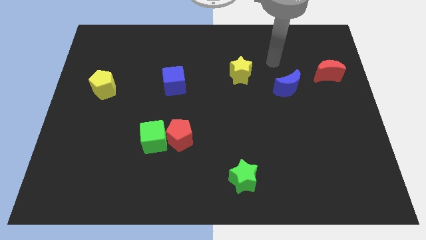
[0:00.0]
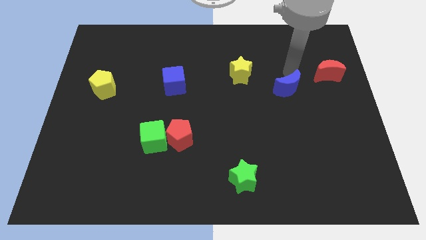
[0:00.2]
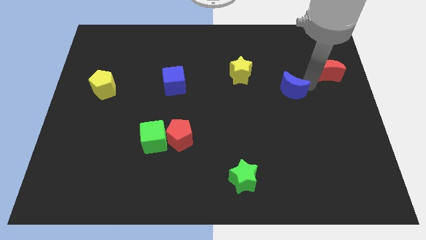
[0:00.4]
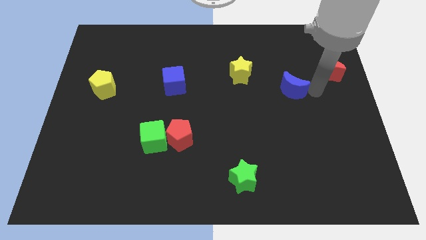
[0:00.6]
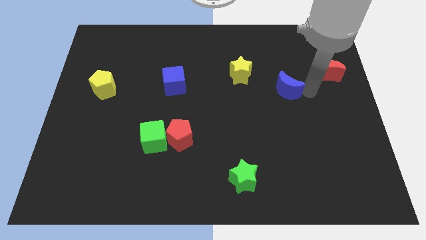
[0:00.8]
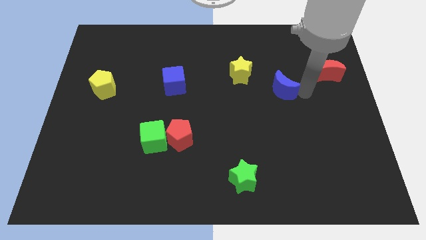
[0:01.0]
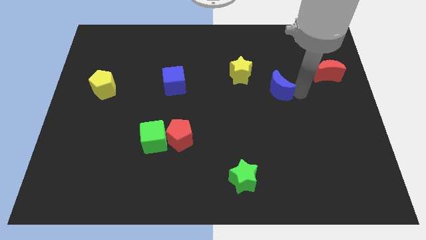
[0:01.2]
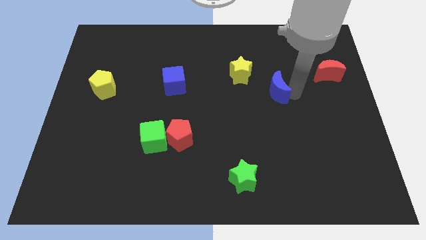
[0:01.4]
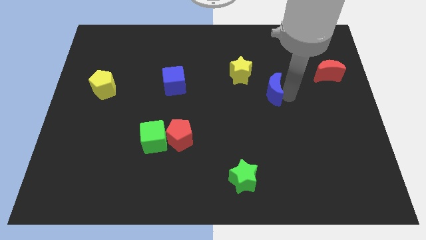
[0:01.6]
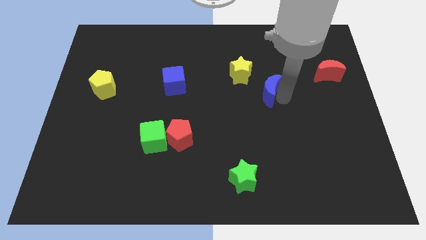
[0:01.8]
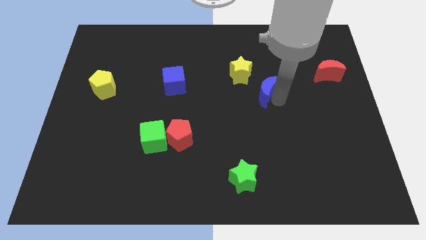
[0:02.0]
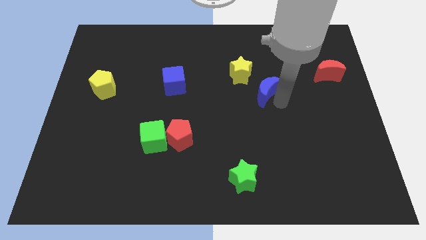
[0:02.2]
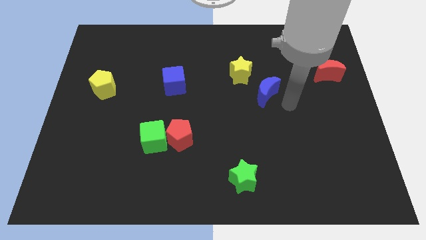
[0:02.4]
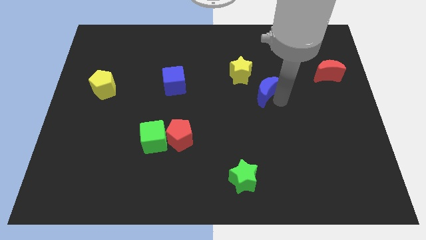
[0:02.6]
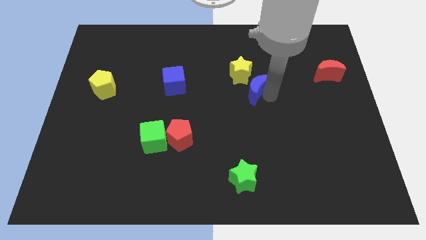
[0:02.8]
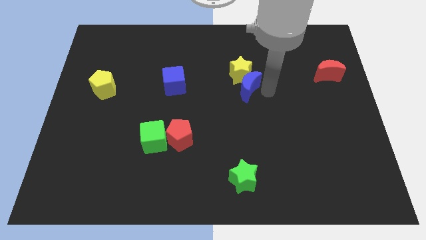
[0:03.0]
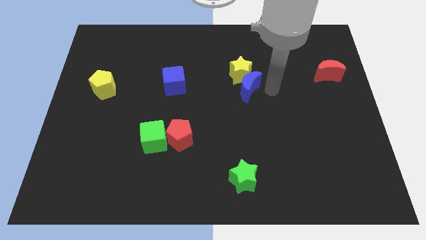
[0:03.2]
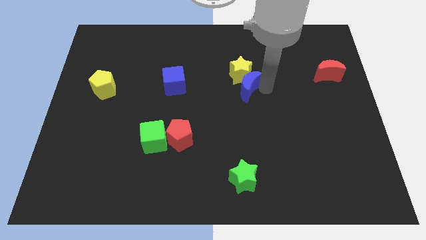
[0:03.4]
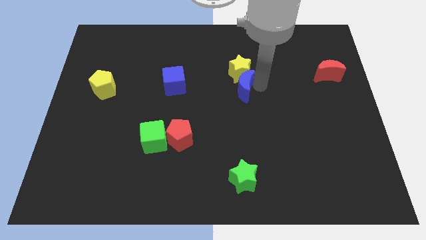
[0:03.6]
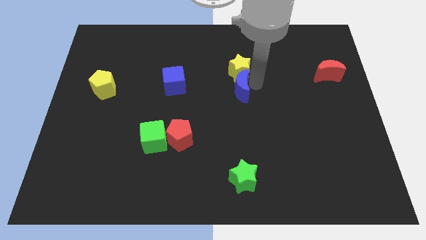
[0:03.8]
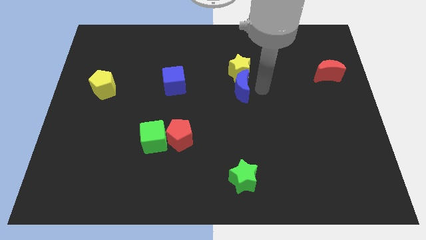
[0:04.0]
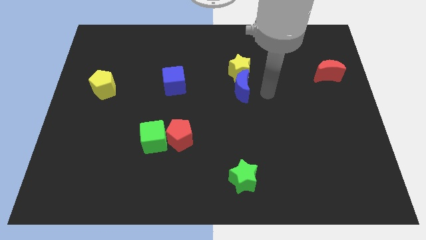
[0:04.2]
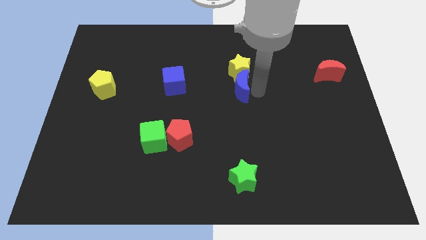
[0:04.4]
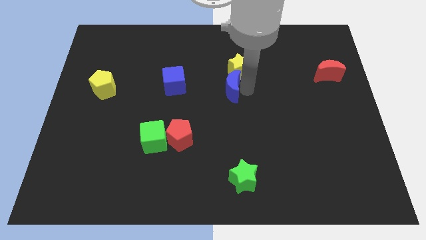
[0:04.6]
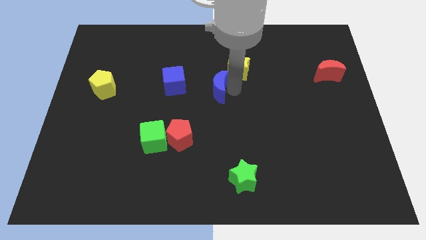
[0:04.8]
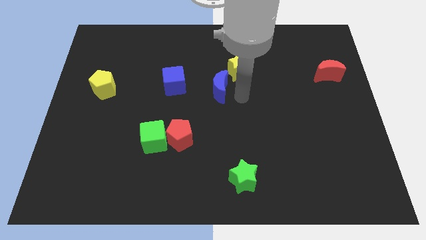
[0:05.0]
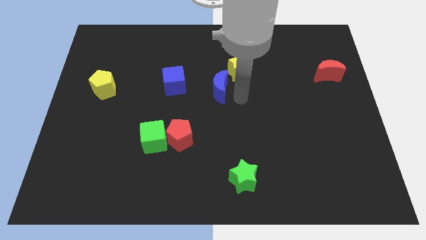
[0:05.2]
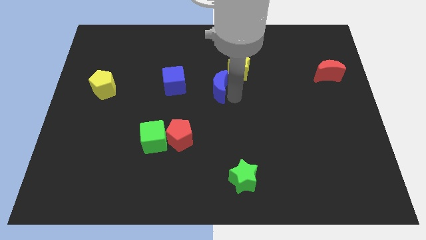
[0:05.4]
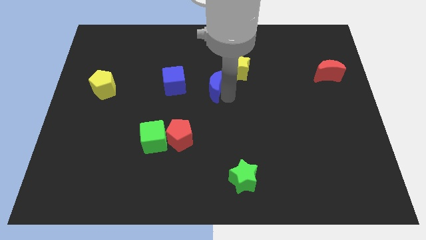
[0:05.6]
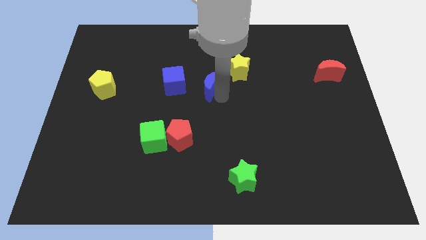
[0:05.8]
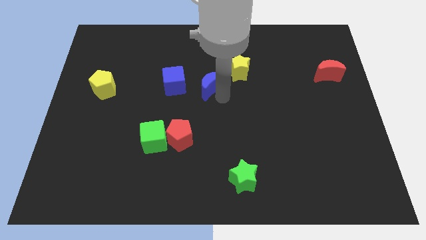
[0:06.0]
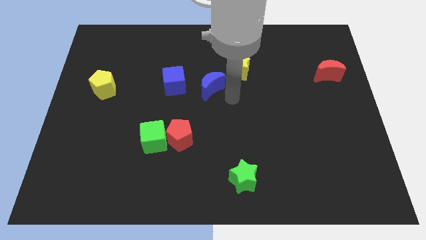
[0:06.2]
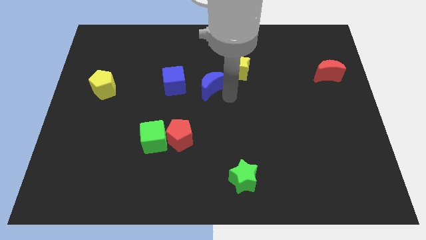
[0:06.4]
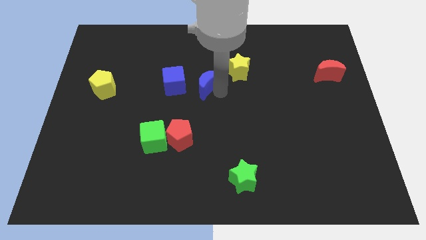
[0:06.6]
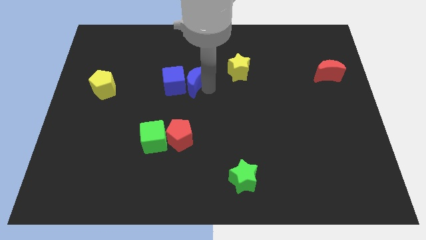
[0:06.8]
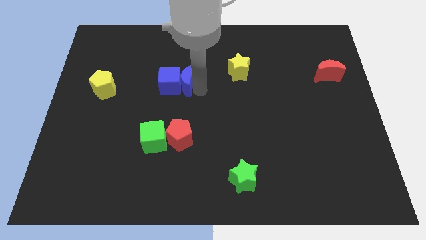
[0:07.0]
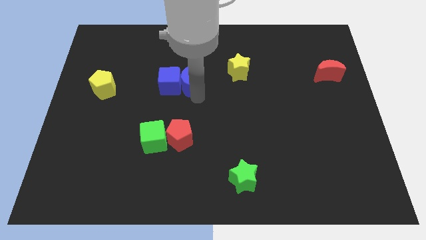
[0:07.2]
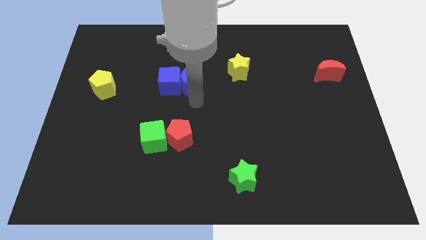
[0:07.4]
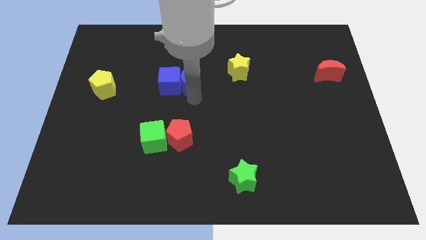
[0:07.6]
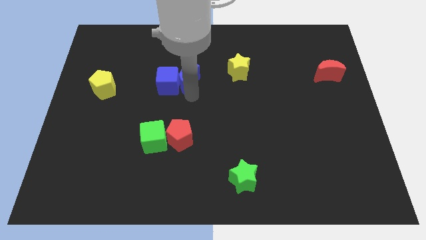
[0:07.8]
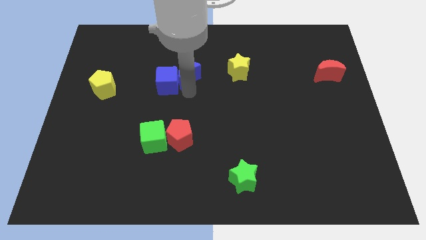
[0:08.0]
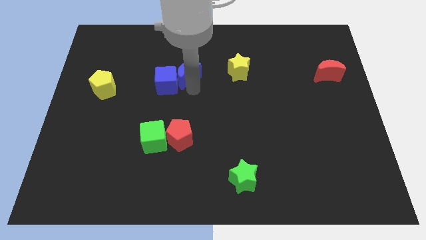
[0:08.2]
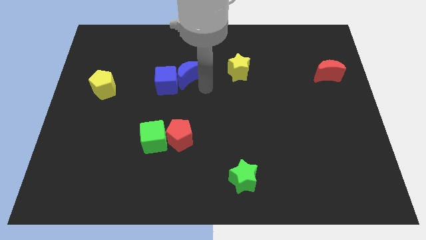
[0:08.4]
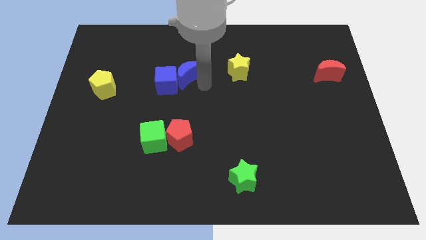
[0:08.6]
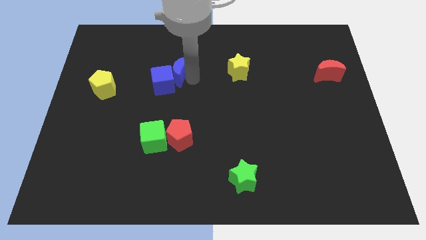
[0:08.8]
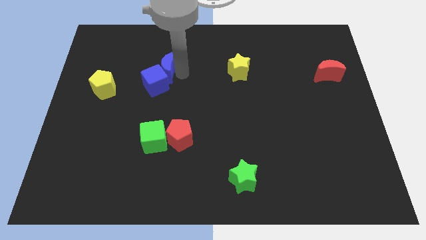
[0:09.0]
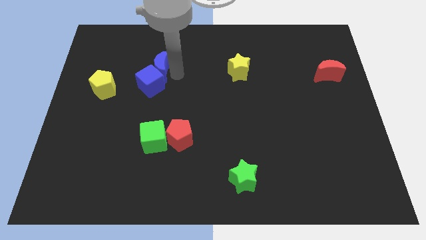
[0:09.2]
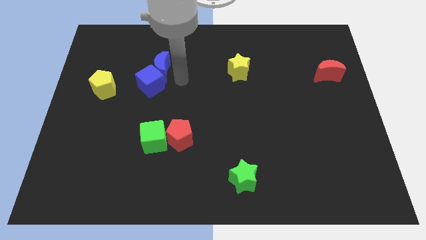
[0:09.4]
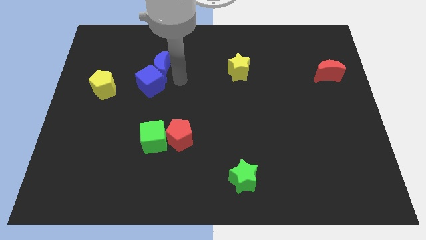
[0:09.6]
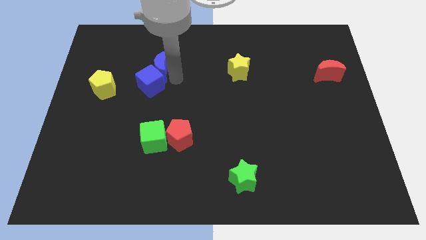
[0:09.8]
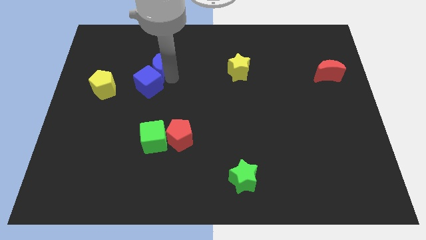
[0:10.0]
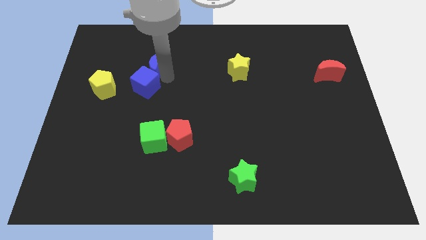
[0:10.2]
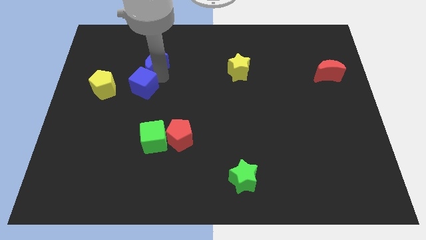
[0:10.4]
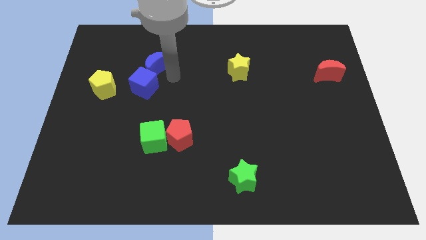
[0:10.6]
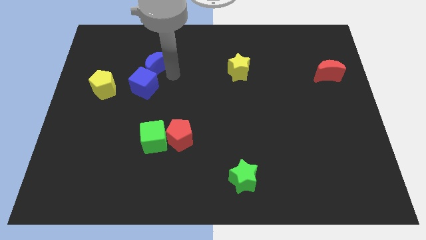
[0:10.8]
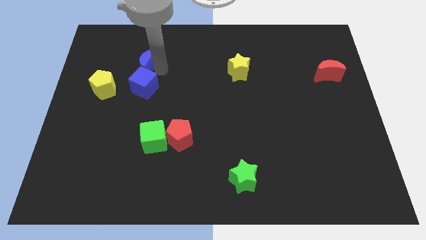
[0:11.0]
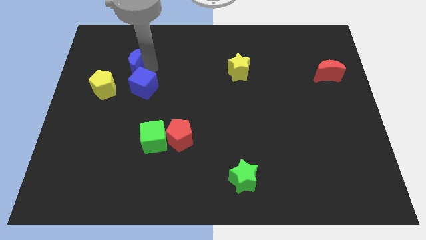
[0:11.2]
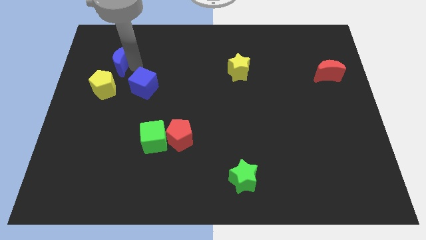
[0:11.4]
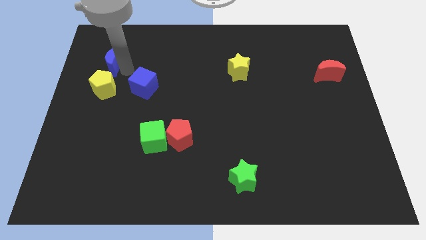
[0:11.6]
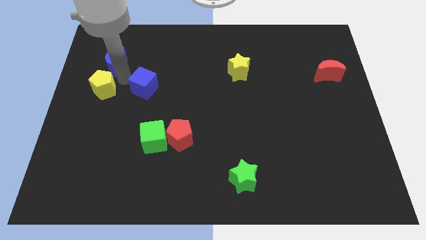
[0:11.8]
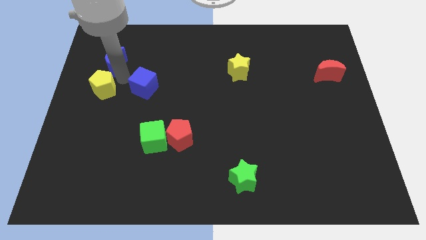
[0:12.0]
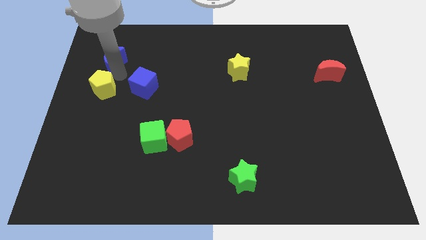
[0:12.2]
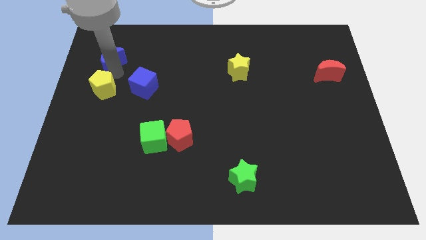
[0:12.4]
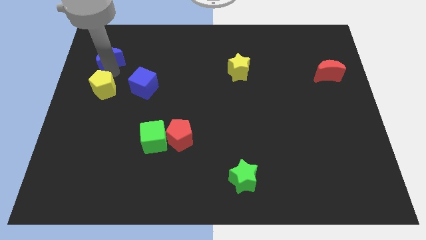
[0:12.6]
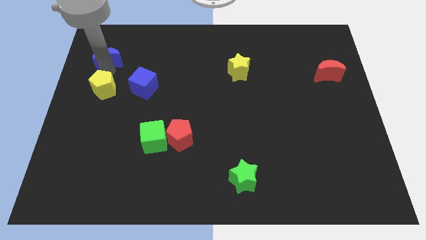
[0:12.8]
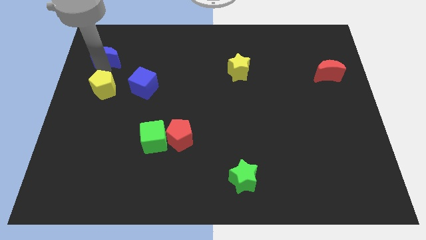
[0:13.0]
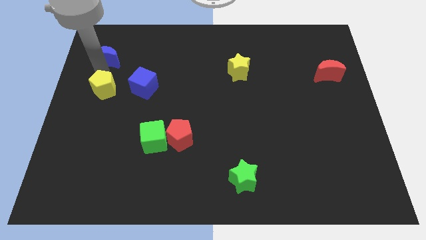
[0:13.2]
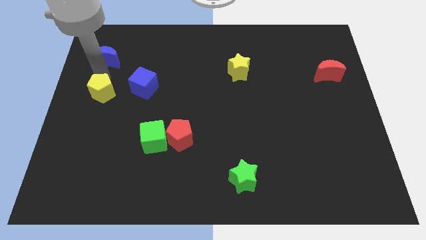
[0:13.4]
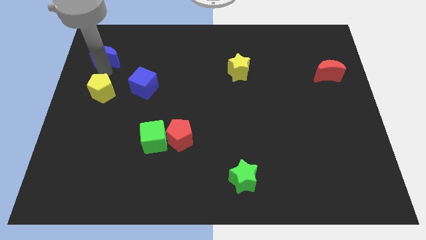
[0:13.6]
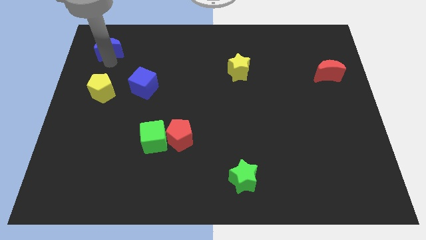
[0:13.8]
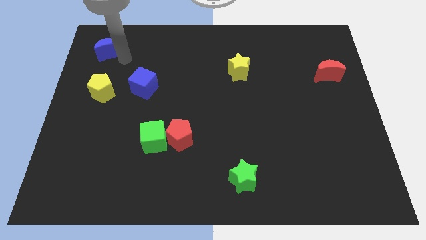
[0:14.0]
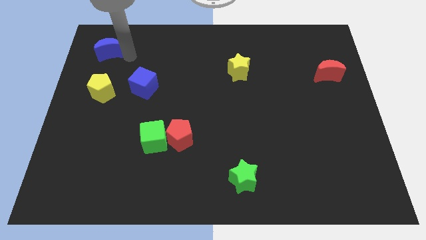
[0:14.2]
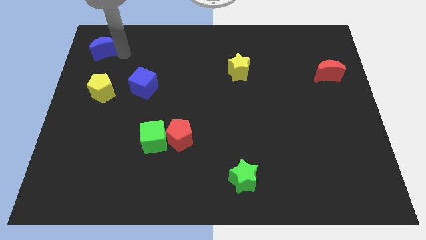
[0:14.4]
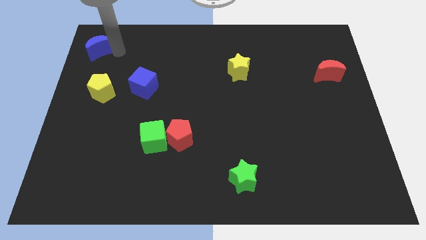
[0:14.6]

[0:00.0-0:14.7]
put the blue moon to the top left corner
